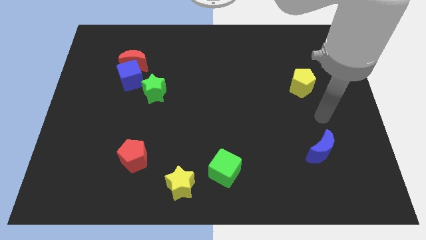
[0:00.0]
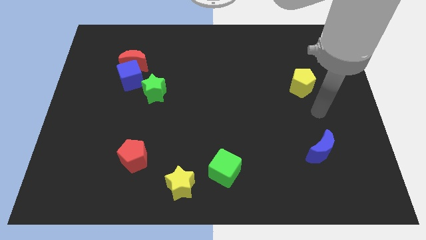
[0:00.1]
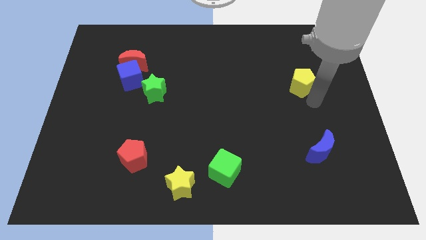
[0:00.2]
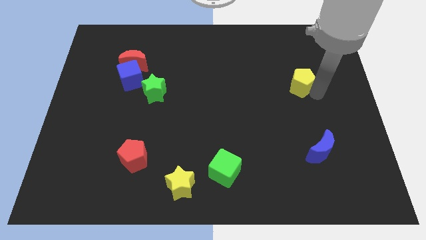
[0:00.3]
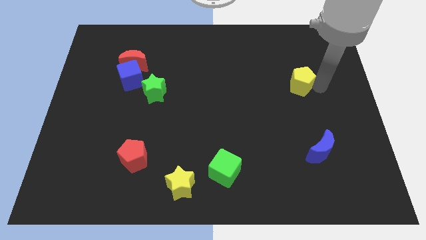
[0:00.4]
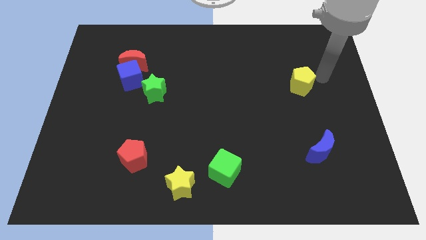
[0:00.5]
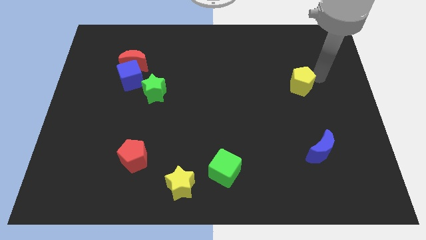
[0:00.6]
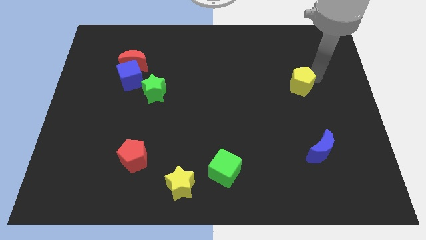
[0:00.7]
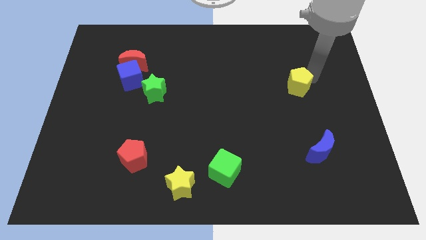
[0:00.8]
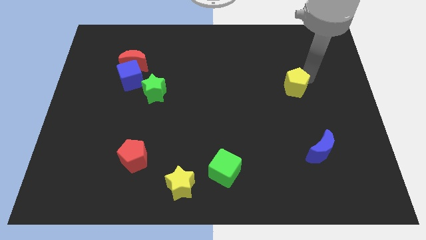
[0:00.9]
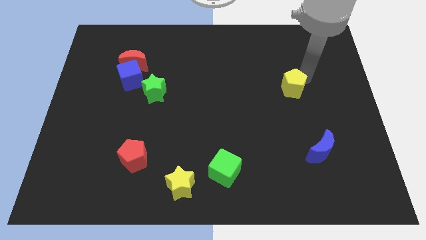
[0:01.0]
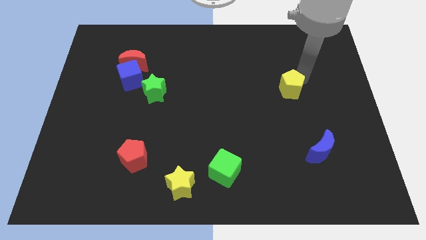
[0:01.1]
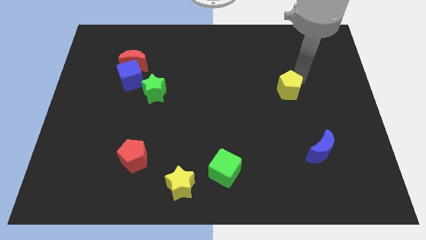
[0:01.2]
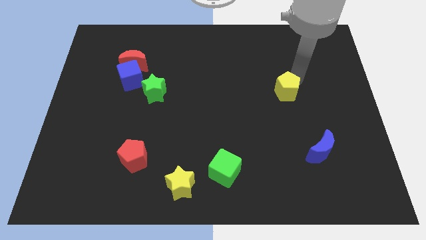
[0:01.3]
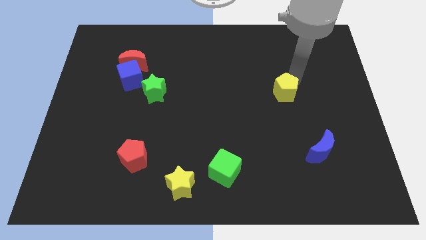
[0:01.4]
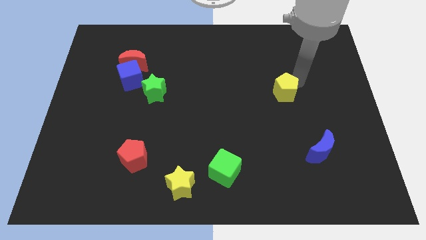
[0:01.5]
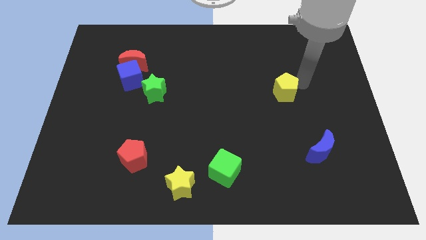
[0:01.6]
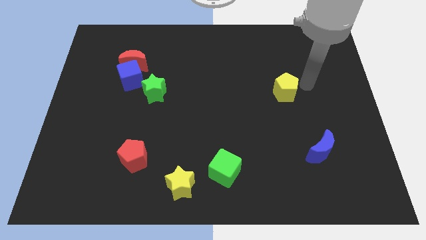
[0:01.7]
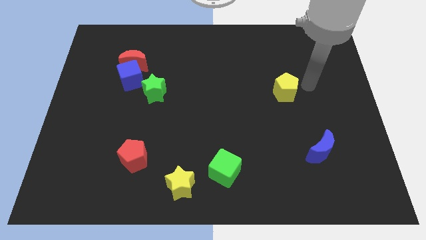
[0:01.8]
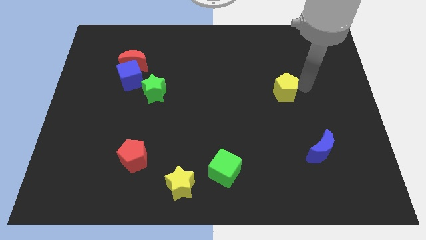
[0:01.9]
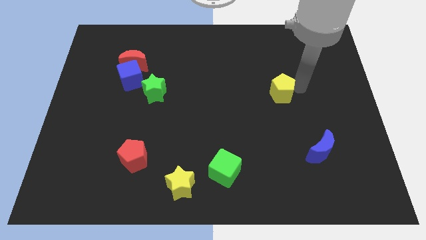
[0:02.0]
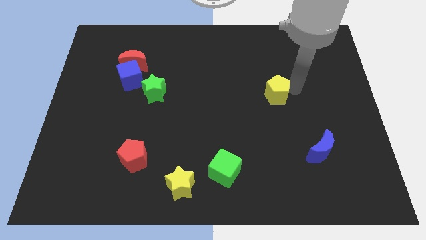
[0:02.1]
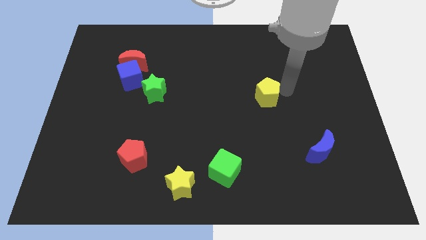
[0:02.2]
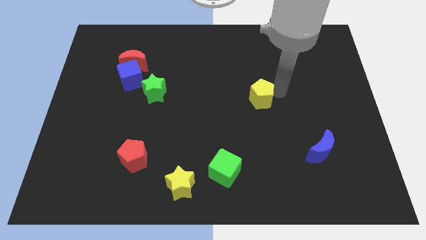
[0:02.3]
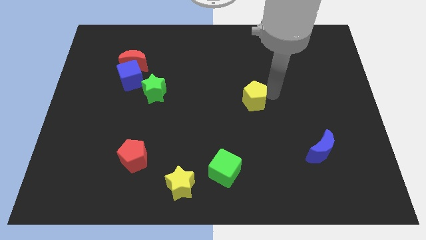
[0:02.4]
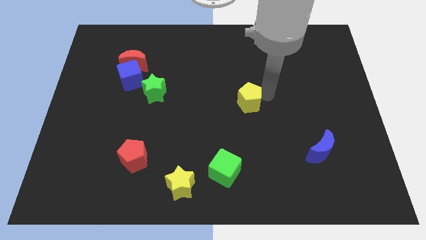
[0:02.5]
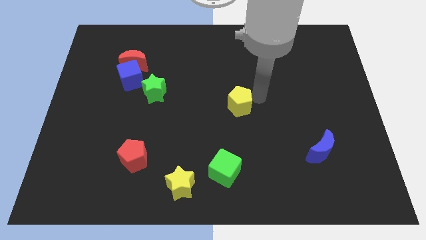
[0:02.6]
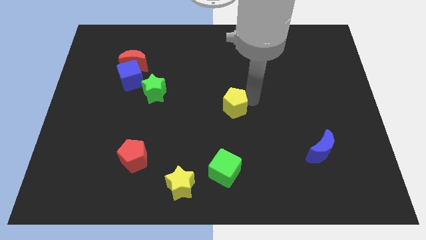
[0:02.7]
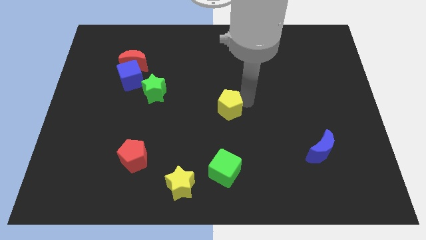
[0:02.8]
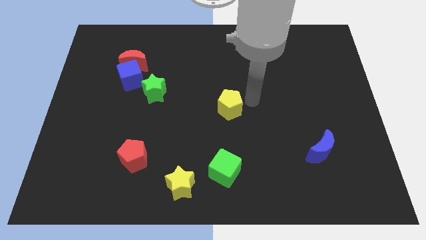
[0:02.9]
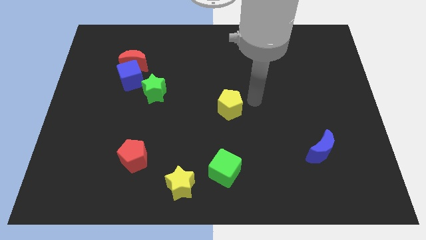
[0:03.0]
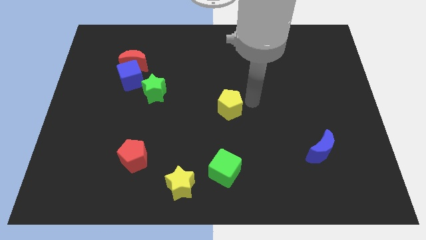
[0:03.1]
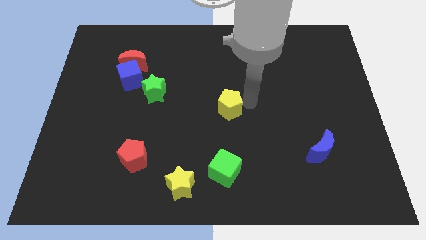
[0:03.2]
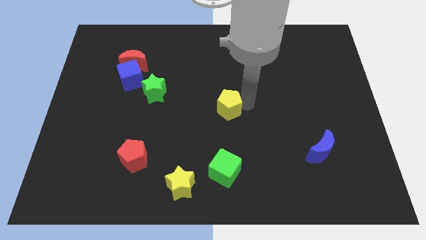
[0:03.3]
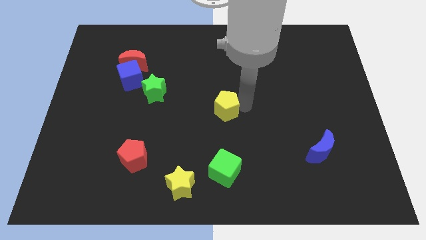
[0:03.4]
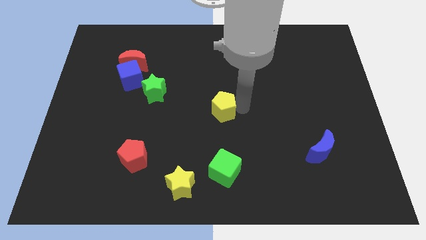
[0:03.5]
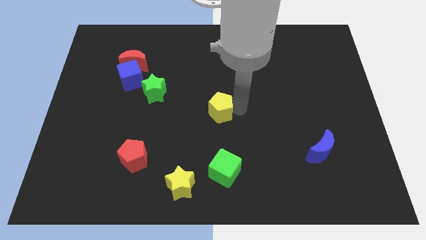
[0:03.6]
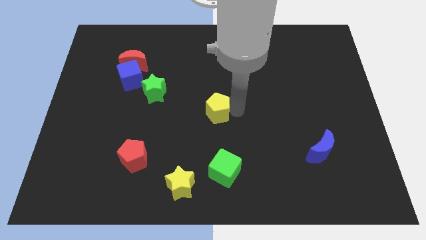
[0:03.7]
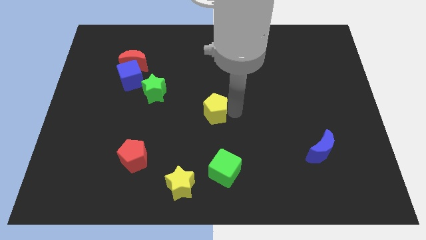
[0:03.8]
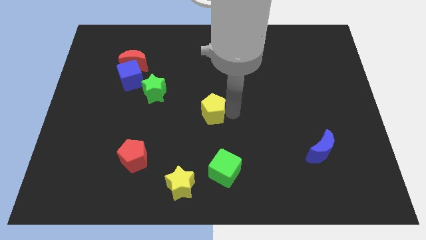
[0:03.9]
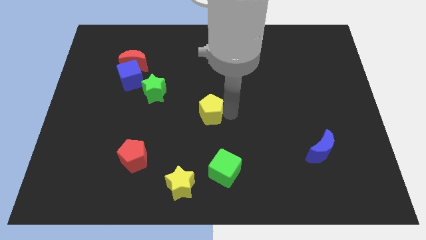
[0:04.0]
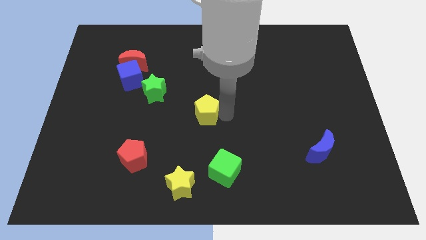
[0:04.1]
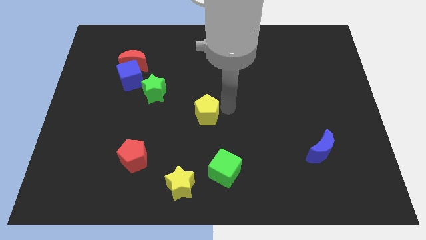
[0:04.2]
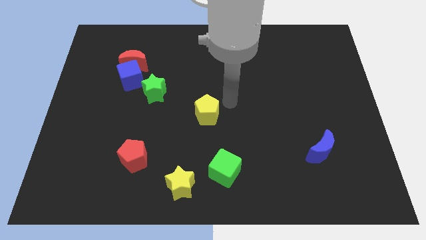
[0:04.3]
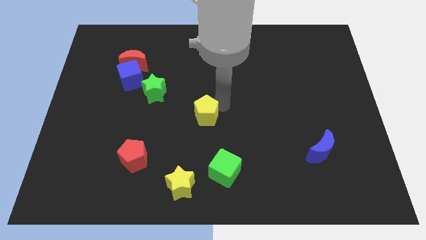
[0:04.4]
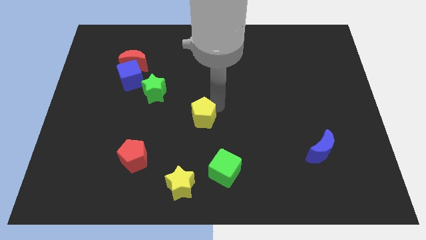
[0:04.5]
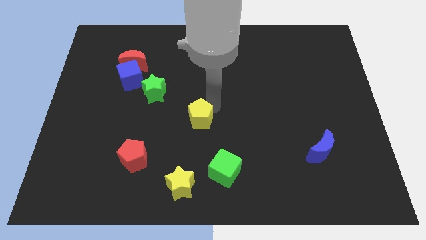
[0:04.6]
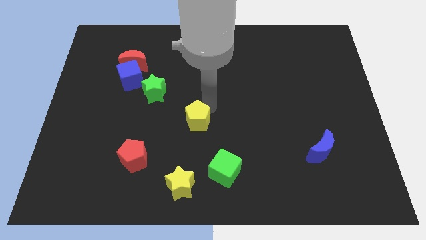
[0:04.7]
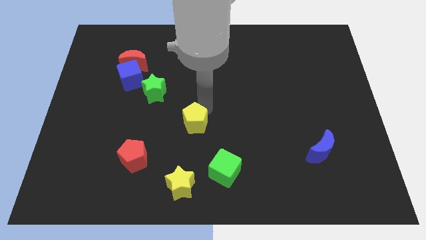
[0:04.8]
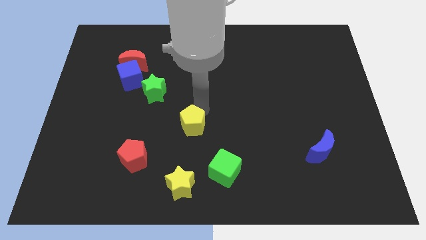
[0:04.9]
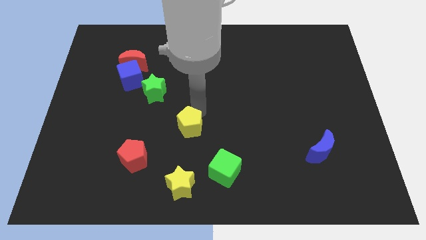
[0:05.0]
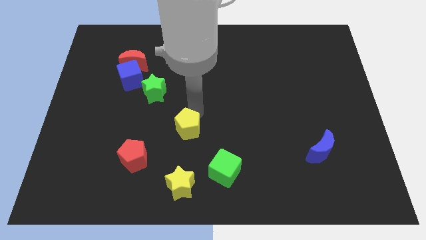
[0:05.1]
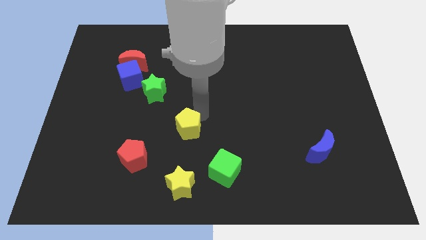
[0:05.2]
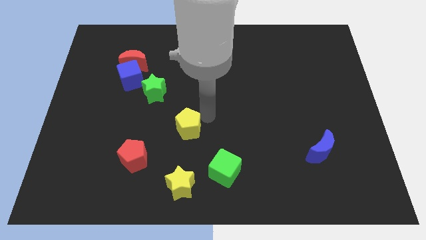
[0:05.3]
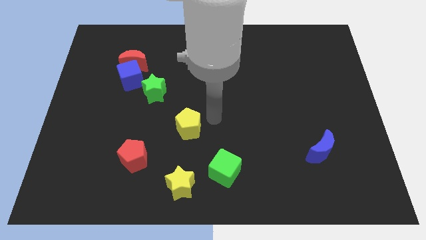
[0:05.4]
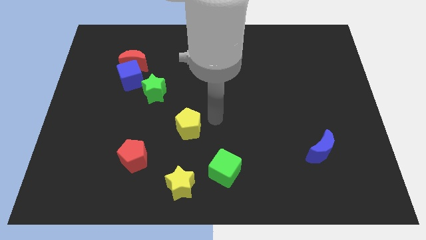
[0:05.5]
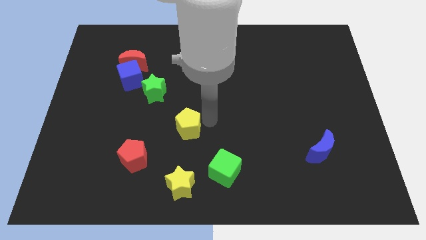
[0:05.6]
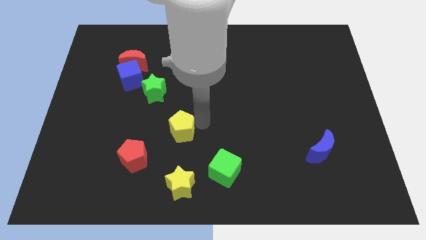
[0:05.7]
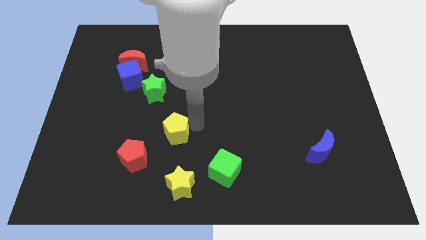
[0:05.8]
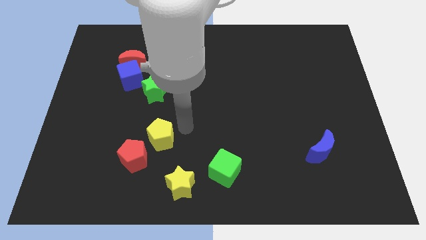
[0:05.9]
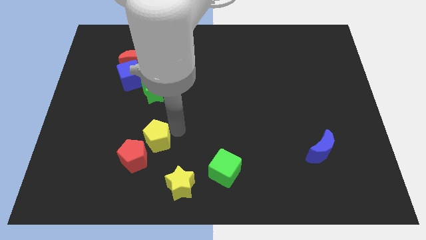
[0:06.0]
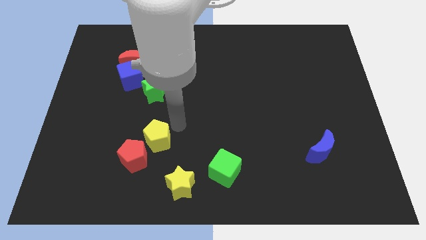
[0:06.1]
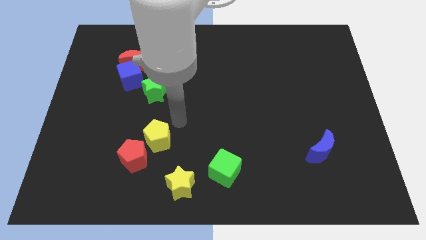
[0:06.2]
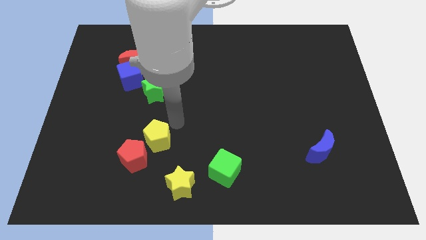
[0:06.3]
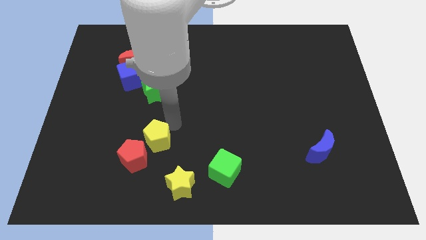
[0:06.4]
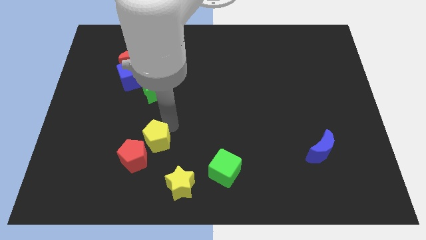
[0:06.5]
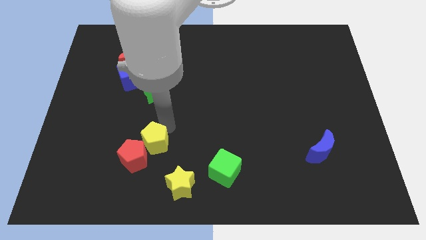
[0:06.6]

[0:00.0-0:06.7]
slide the yellow pentagon next to the red pentagon

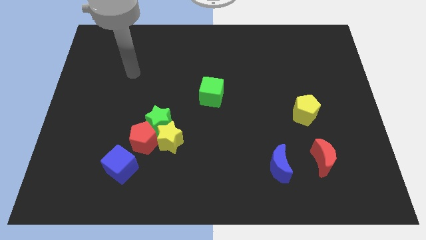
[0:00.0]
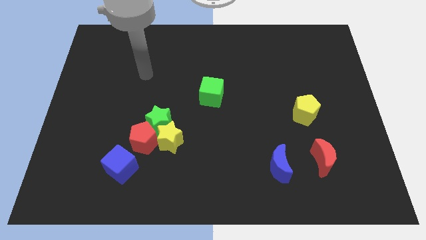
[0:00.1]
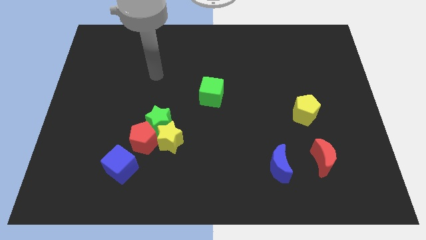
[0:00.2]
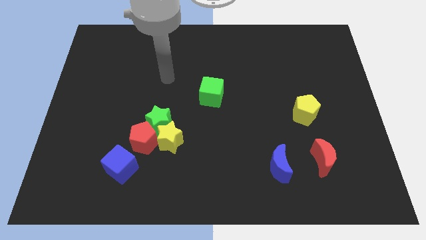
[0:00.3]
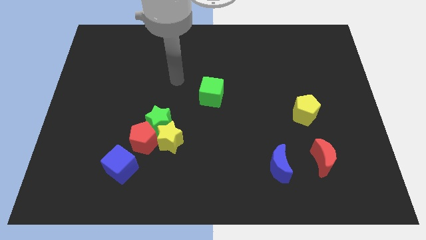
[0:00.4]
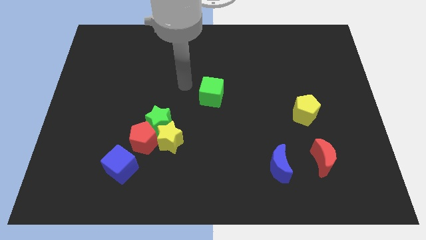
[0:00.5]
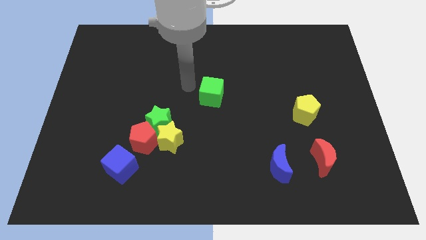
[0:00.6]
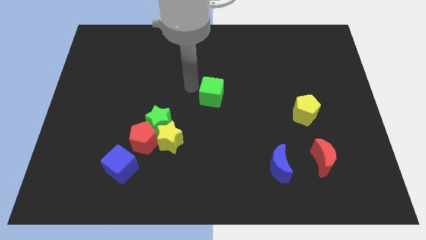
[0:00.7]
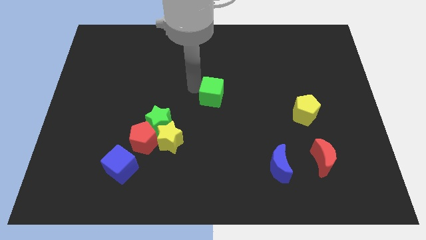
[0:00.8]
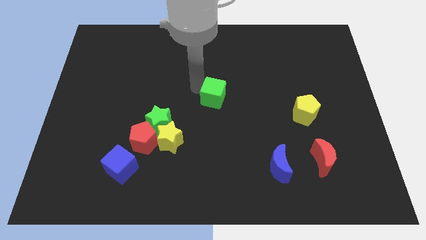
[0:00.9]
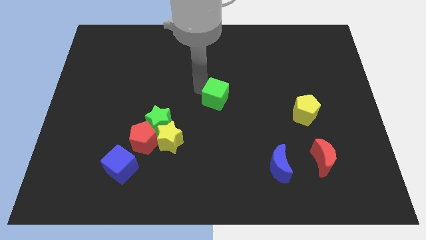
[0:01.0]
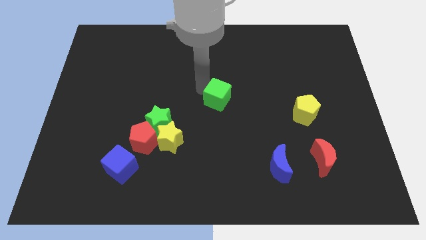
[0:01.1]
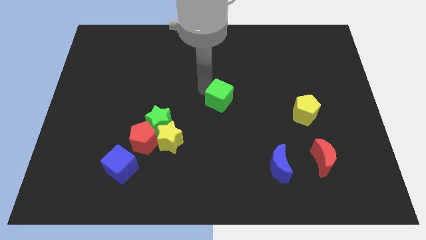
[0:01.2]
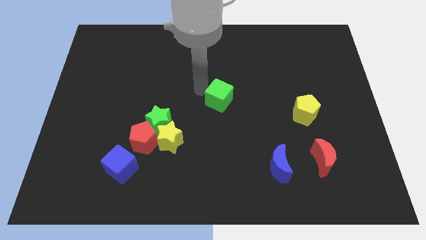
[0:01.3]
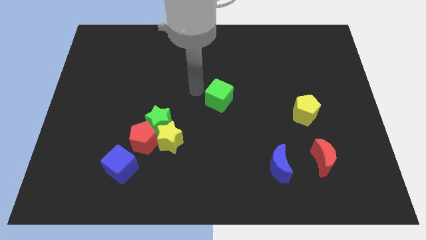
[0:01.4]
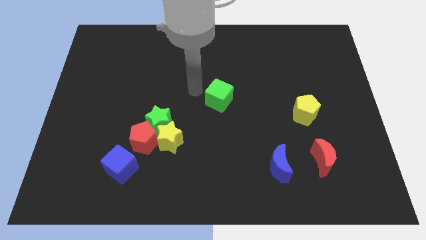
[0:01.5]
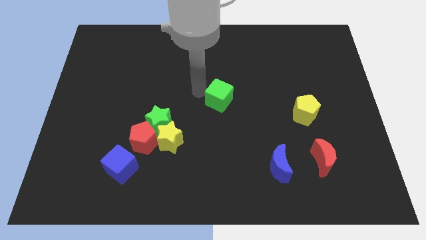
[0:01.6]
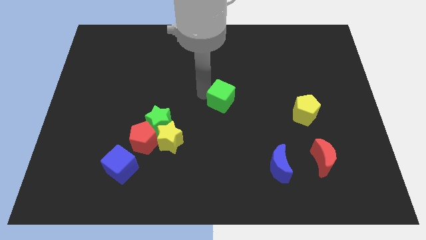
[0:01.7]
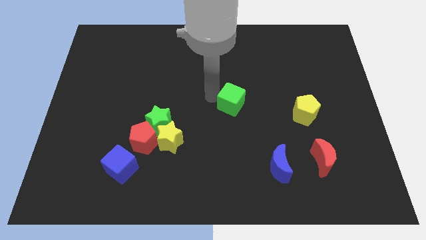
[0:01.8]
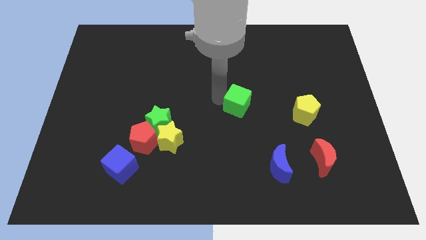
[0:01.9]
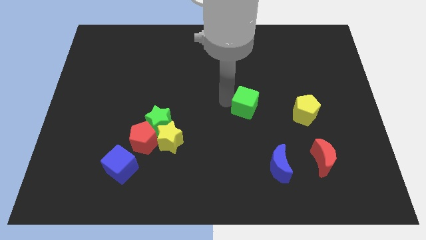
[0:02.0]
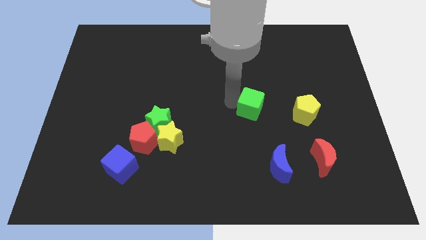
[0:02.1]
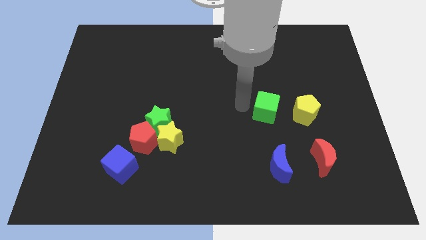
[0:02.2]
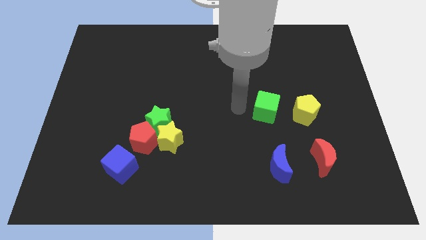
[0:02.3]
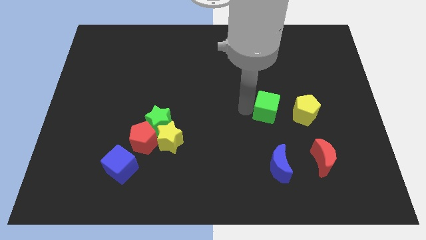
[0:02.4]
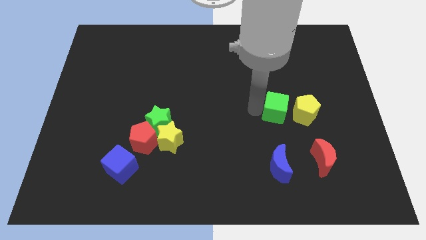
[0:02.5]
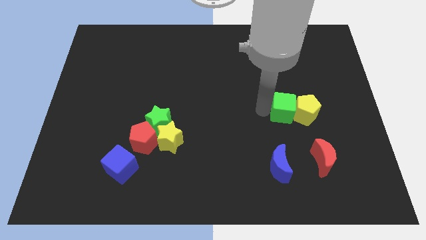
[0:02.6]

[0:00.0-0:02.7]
put the green cube close to the yellow pentagon
